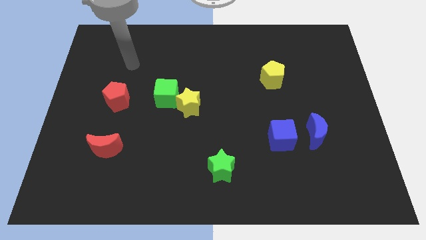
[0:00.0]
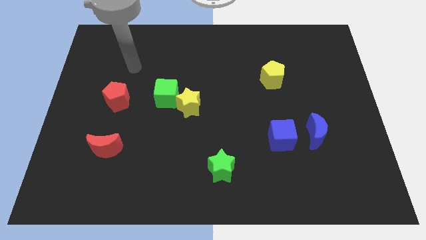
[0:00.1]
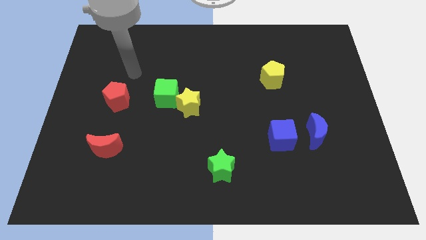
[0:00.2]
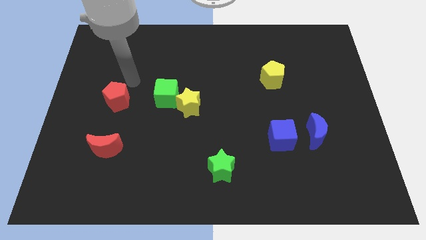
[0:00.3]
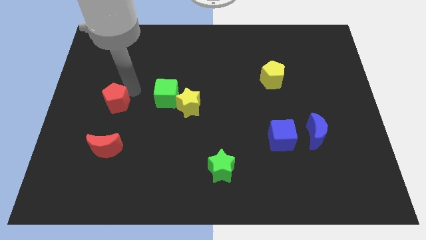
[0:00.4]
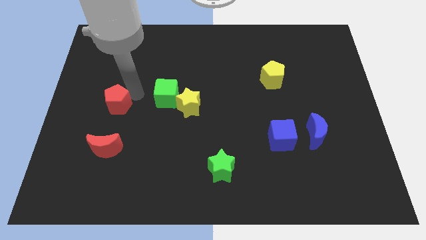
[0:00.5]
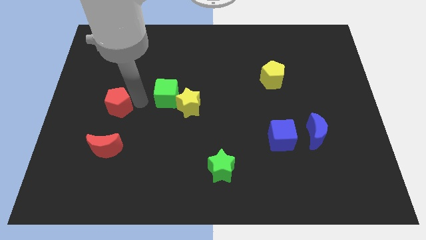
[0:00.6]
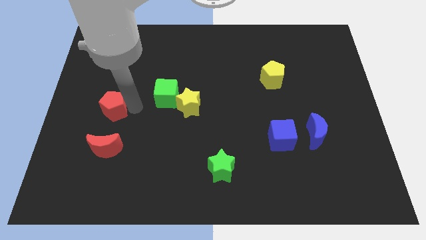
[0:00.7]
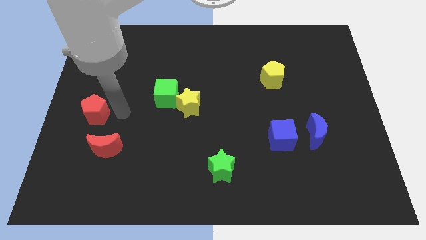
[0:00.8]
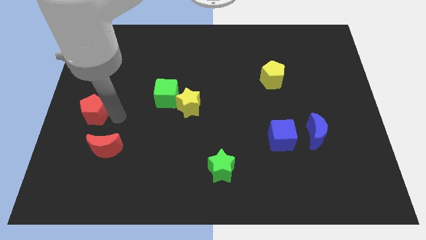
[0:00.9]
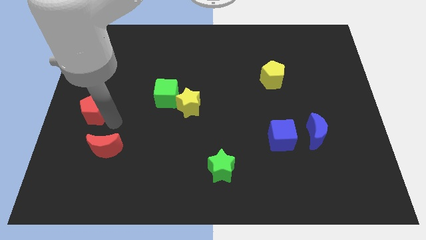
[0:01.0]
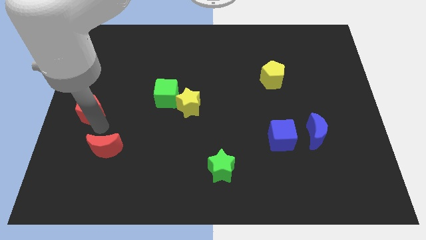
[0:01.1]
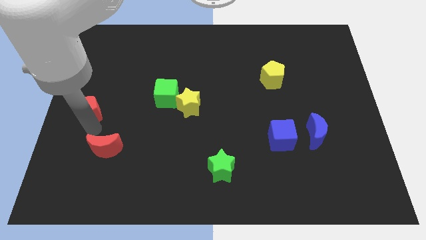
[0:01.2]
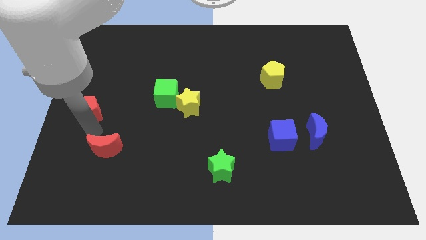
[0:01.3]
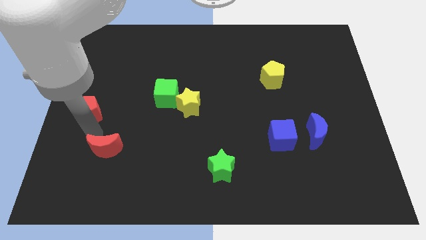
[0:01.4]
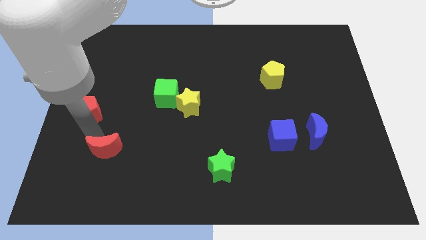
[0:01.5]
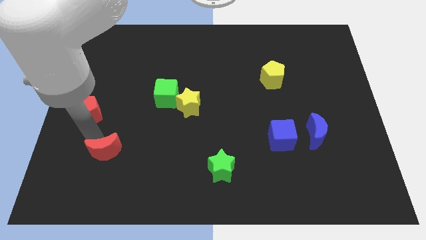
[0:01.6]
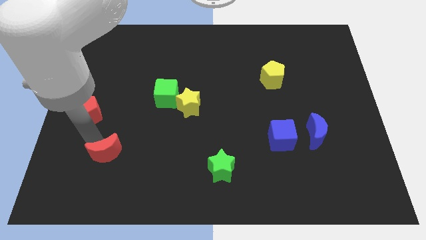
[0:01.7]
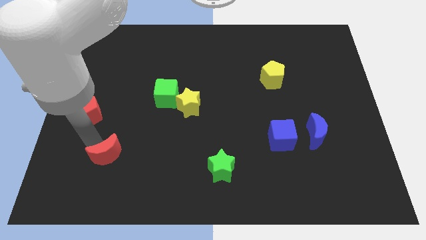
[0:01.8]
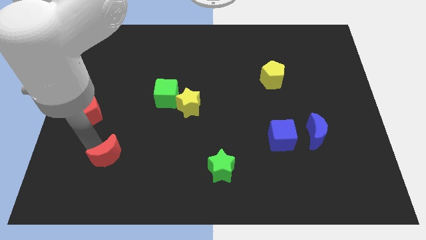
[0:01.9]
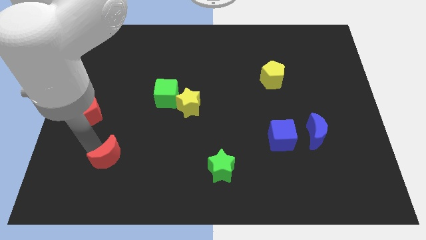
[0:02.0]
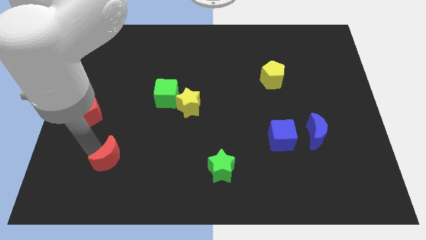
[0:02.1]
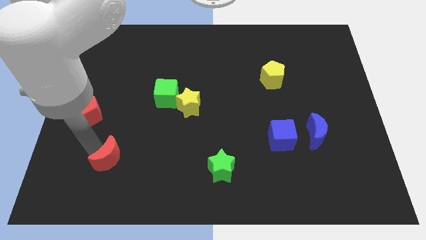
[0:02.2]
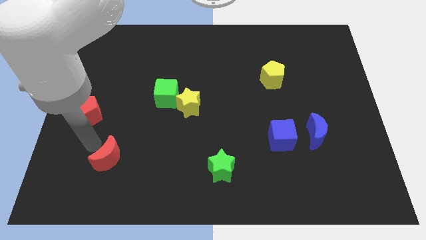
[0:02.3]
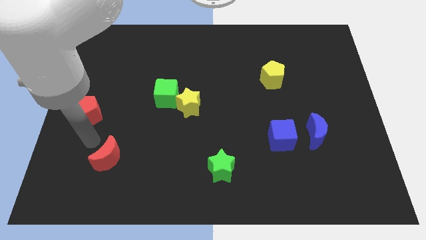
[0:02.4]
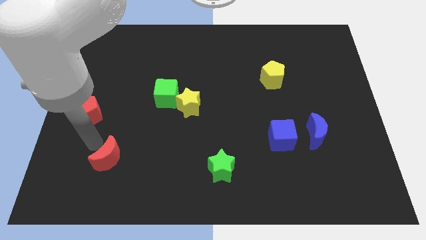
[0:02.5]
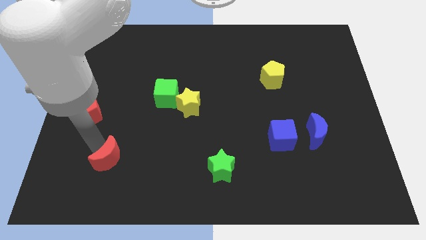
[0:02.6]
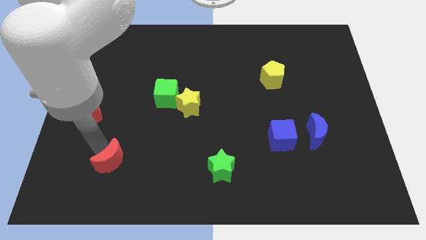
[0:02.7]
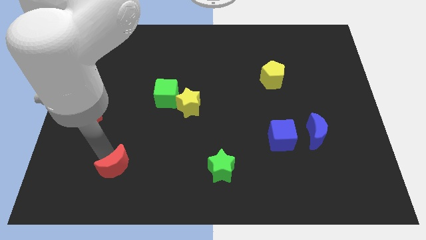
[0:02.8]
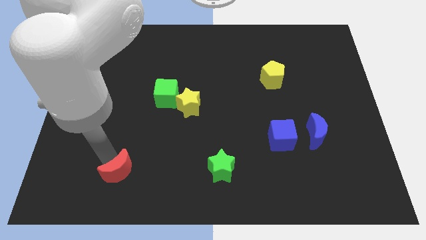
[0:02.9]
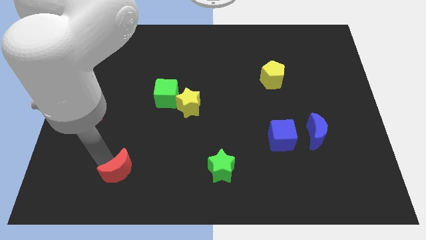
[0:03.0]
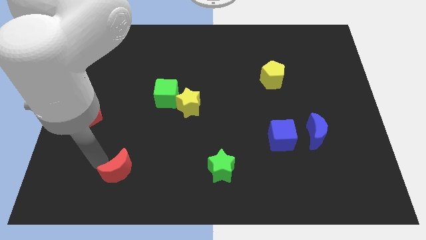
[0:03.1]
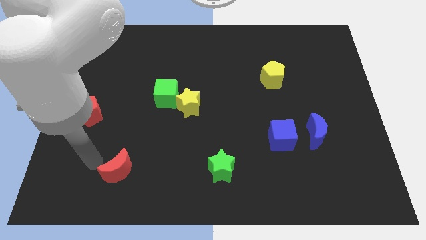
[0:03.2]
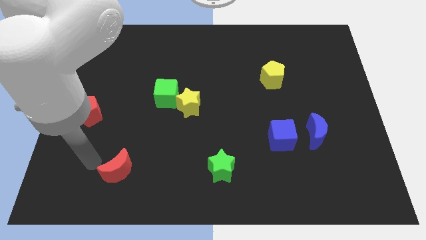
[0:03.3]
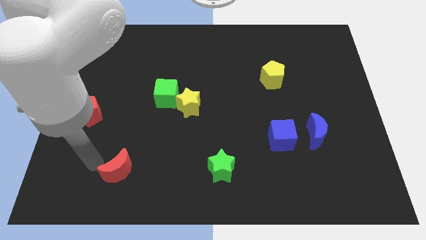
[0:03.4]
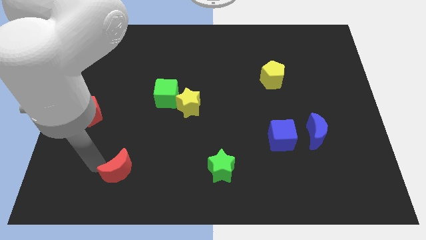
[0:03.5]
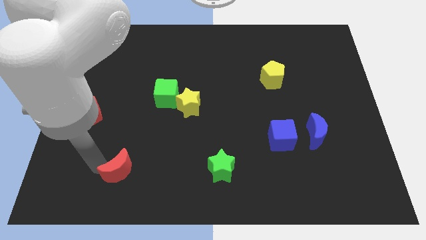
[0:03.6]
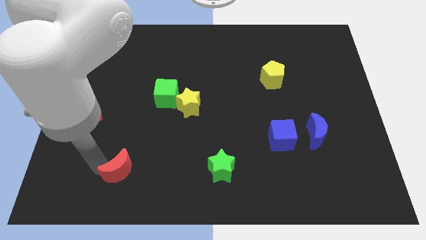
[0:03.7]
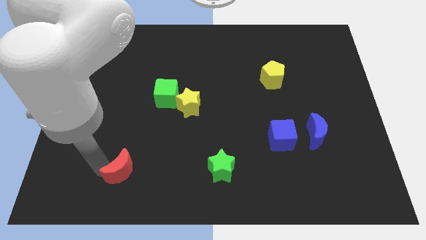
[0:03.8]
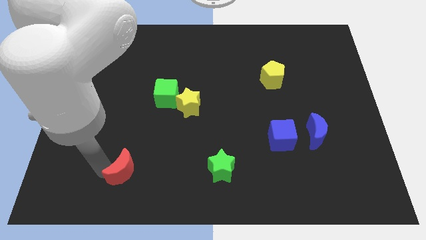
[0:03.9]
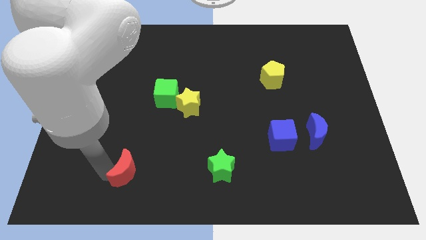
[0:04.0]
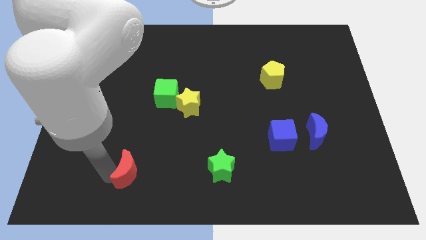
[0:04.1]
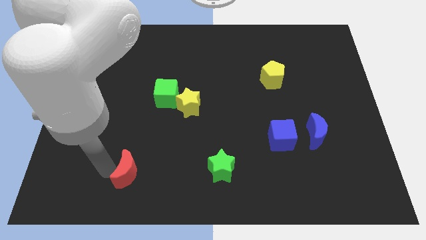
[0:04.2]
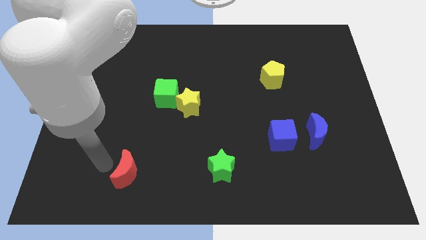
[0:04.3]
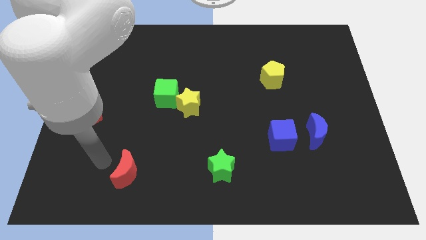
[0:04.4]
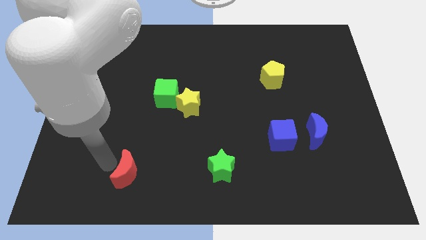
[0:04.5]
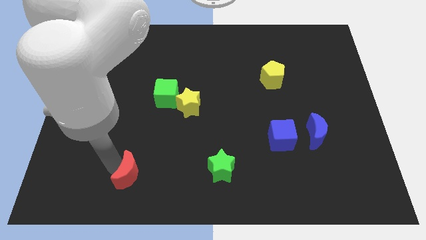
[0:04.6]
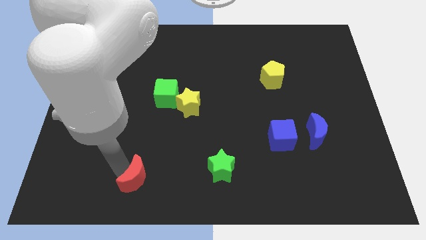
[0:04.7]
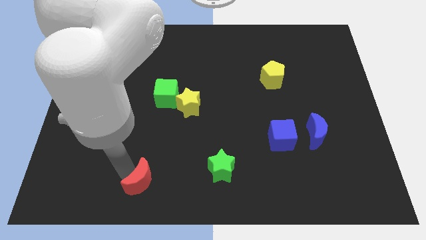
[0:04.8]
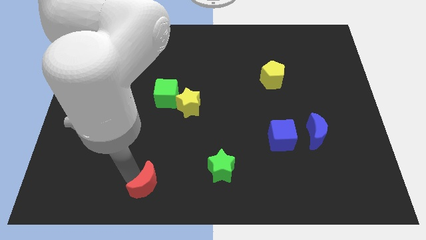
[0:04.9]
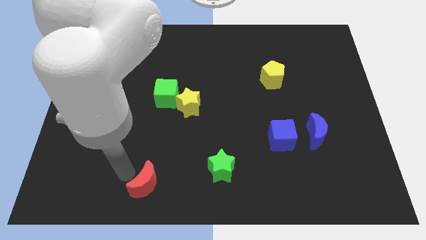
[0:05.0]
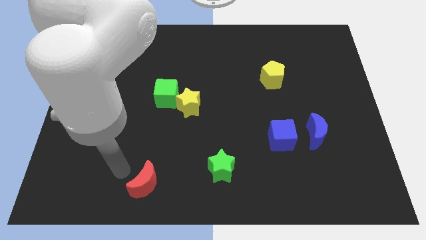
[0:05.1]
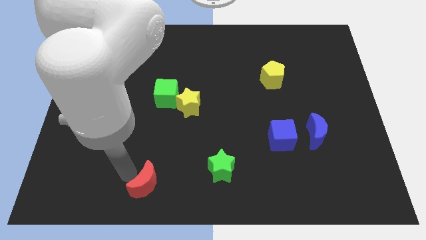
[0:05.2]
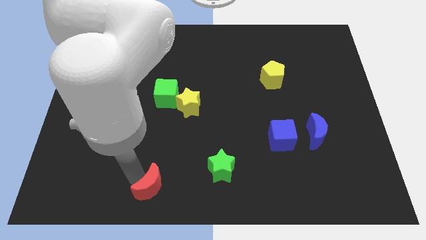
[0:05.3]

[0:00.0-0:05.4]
move the red moon to the bottom
